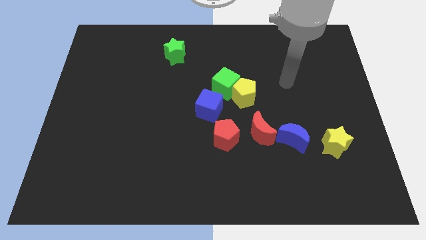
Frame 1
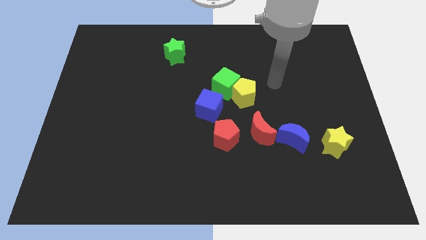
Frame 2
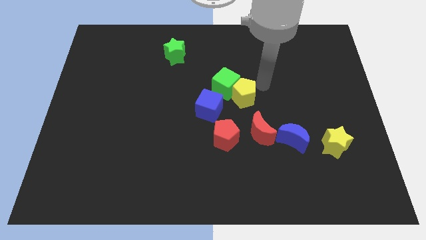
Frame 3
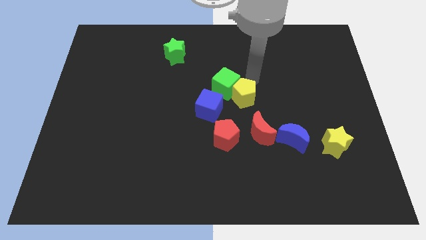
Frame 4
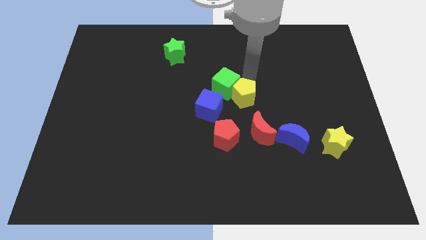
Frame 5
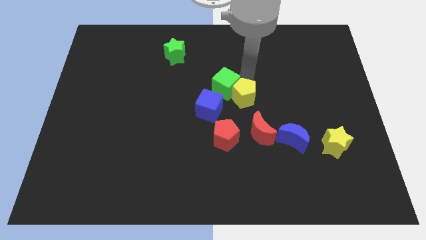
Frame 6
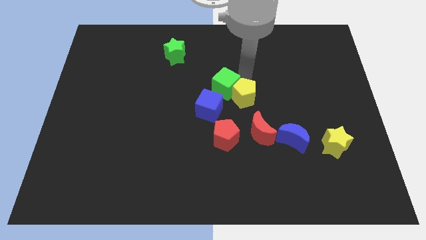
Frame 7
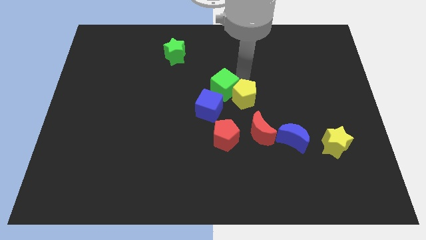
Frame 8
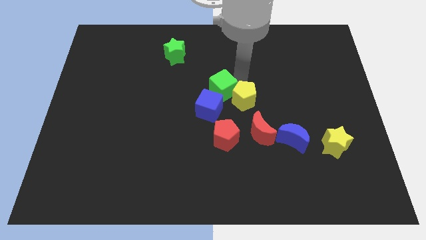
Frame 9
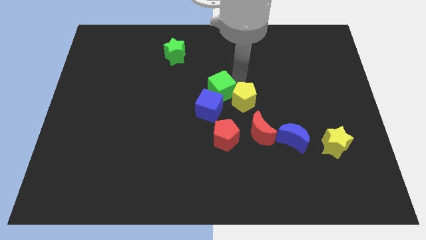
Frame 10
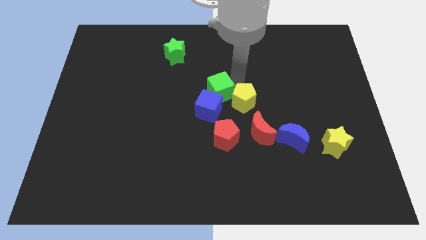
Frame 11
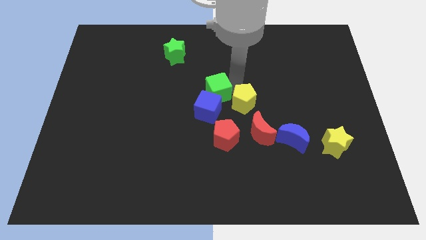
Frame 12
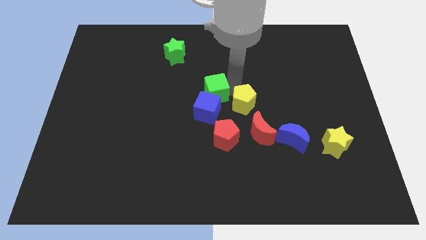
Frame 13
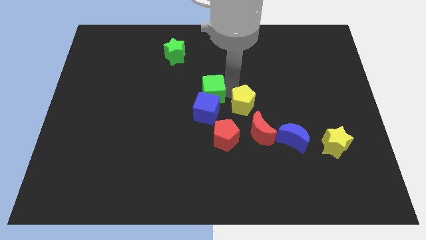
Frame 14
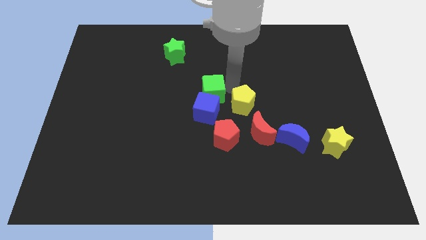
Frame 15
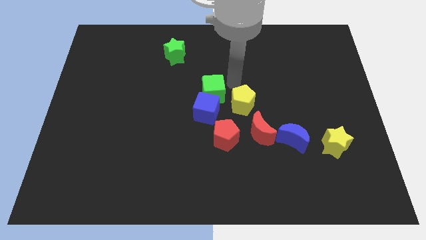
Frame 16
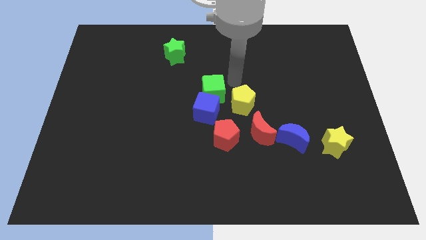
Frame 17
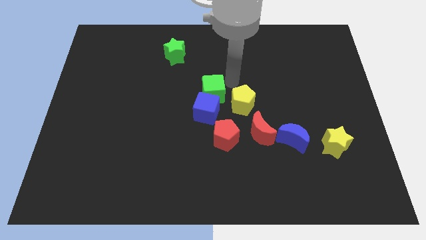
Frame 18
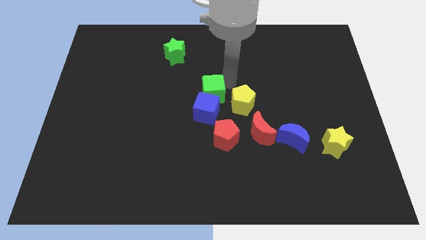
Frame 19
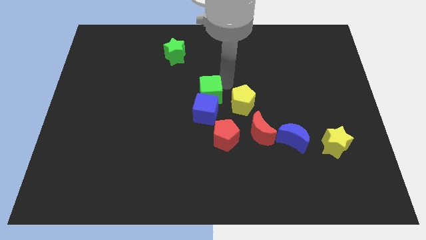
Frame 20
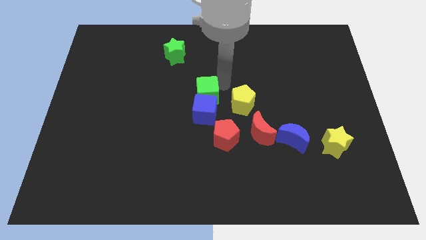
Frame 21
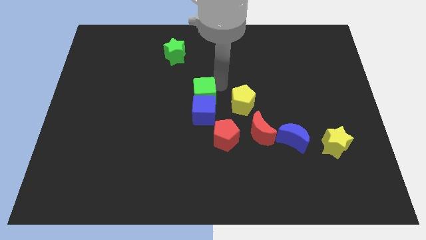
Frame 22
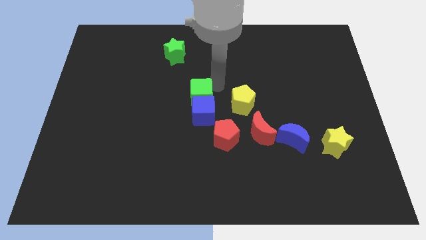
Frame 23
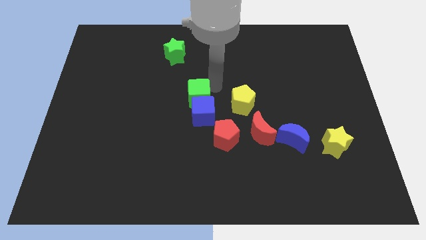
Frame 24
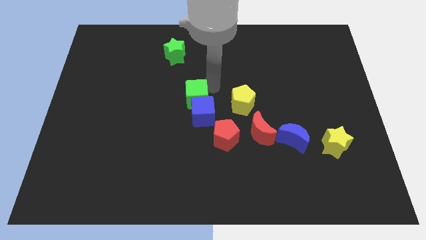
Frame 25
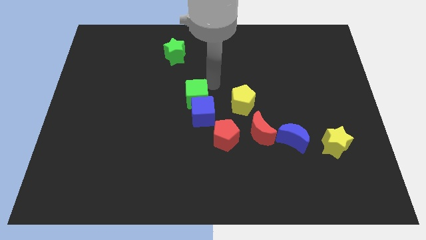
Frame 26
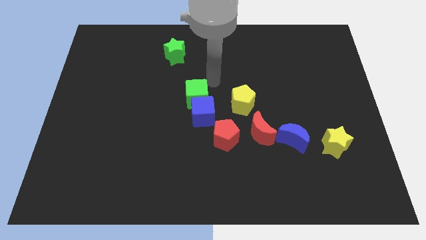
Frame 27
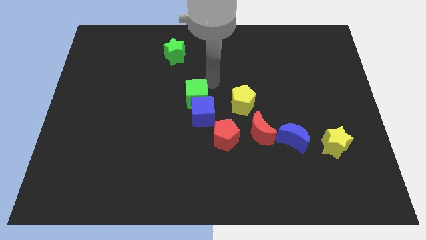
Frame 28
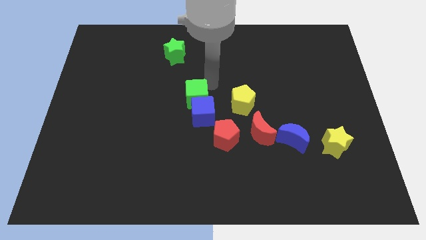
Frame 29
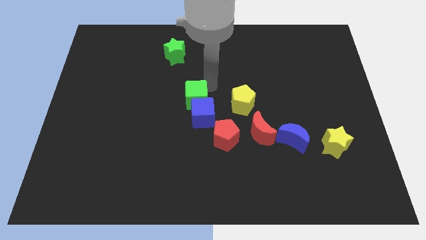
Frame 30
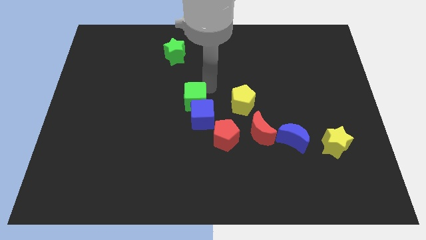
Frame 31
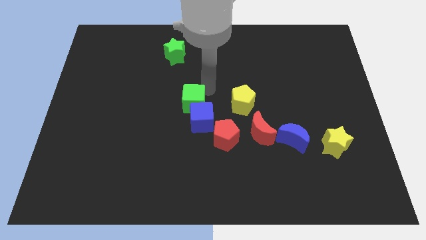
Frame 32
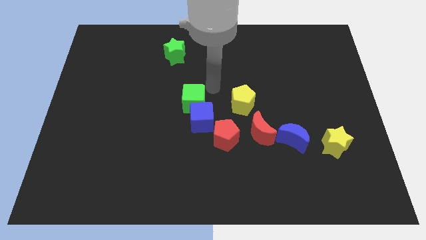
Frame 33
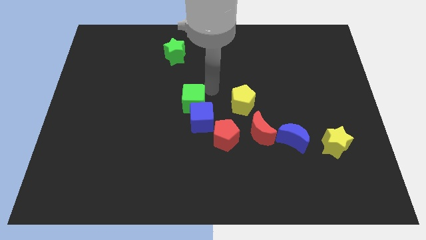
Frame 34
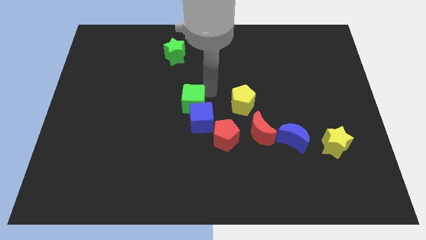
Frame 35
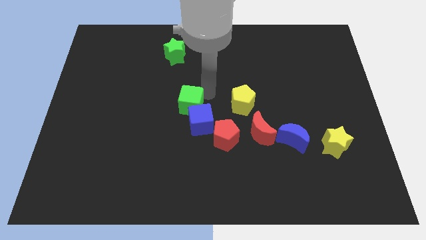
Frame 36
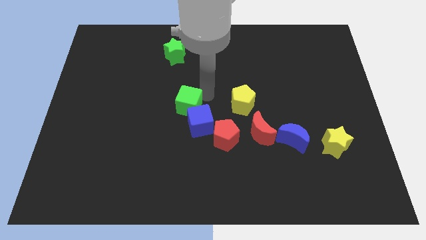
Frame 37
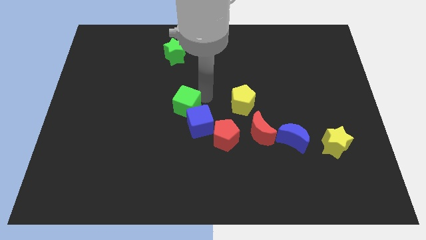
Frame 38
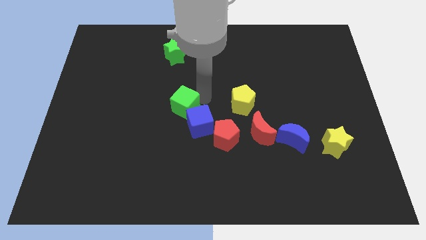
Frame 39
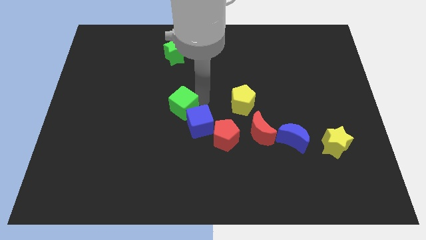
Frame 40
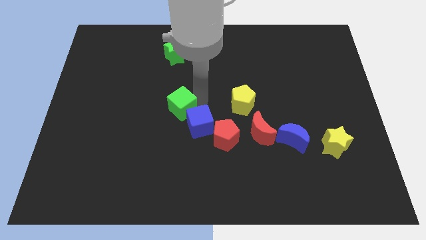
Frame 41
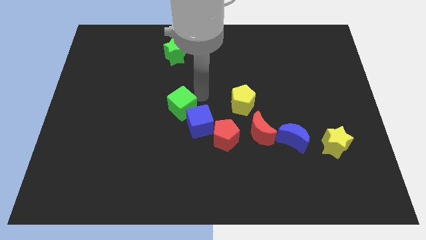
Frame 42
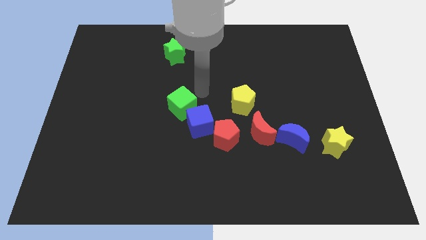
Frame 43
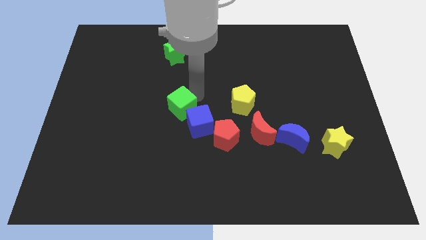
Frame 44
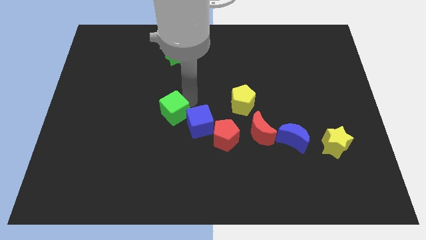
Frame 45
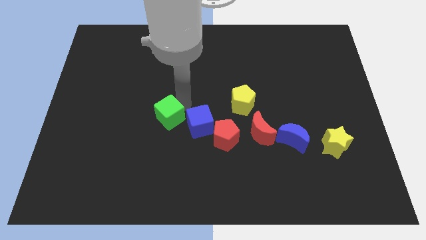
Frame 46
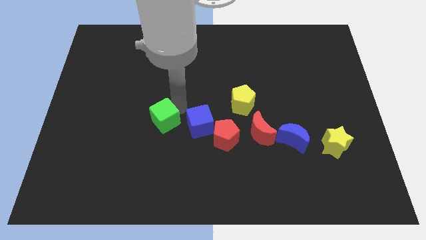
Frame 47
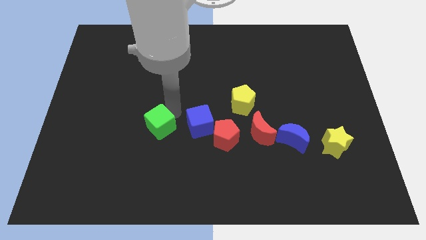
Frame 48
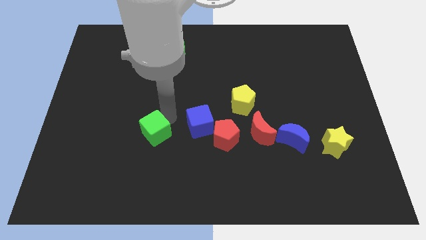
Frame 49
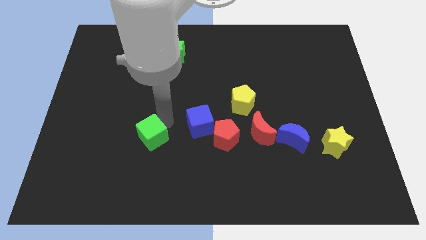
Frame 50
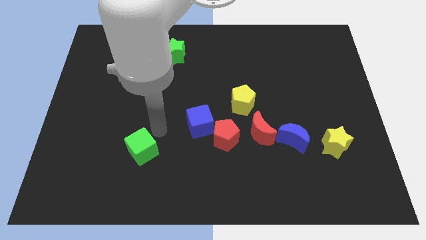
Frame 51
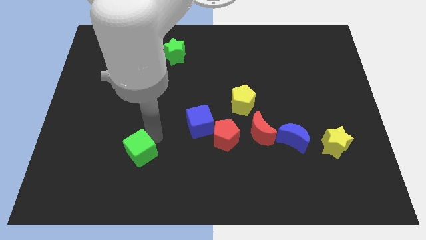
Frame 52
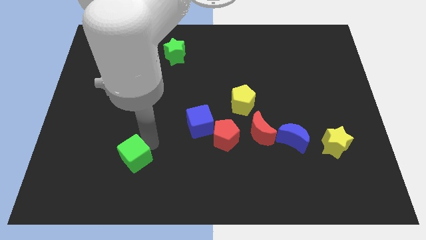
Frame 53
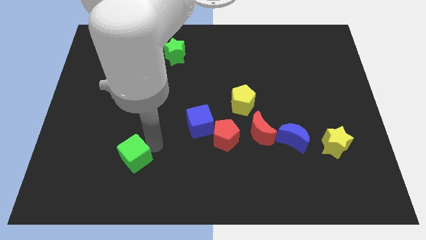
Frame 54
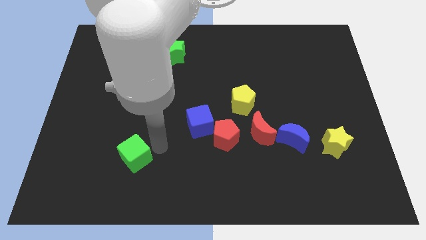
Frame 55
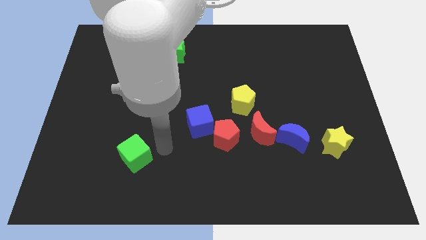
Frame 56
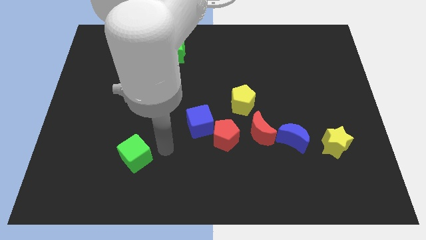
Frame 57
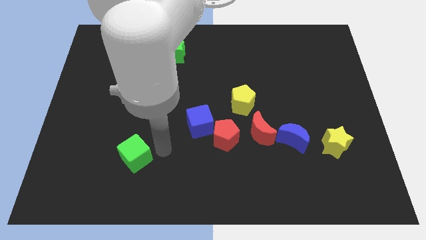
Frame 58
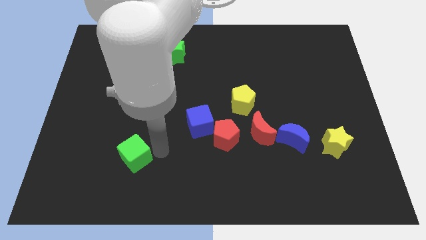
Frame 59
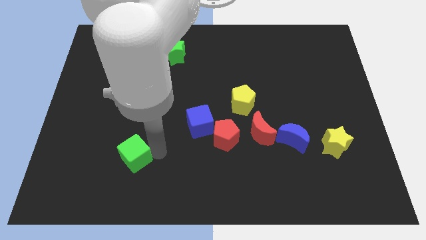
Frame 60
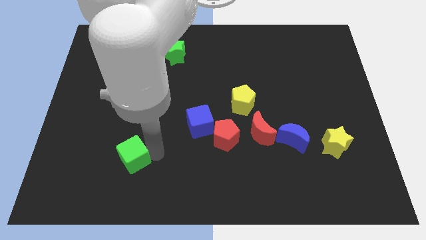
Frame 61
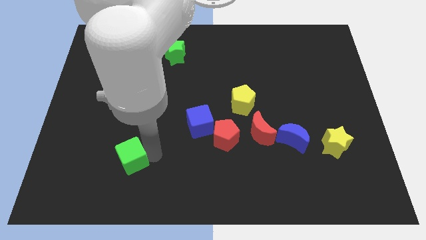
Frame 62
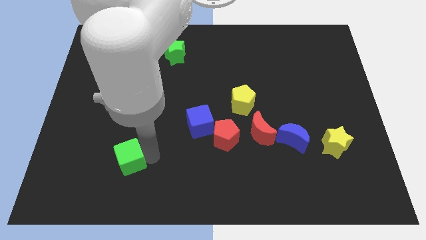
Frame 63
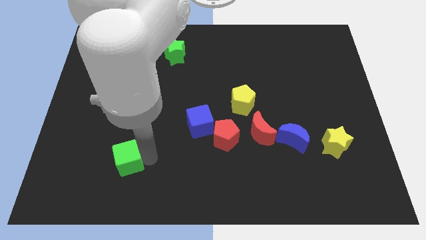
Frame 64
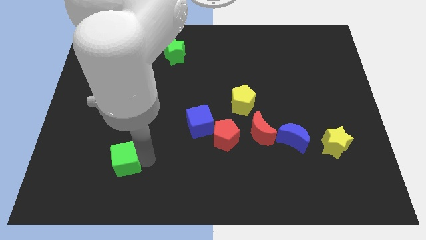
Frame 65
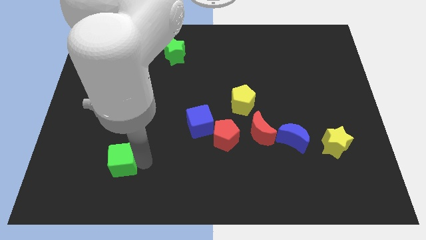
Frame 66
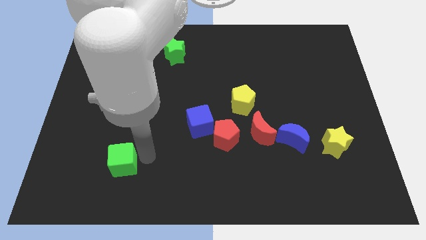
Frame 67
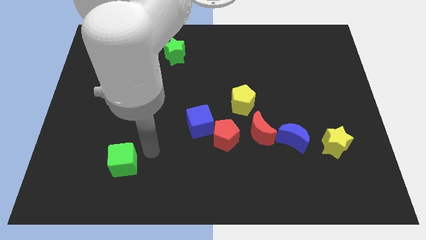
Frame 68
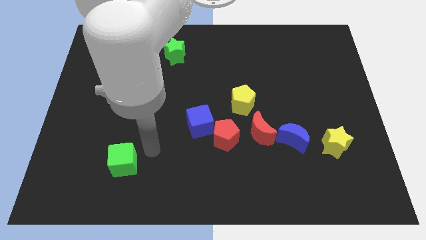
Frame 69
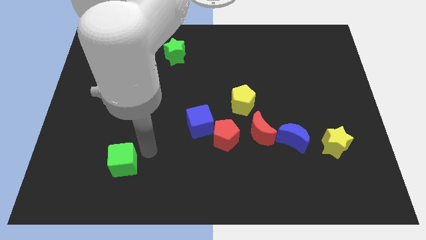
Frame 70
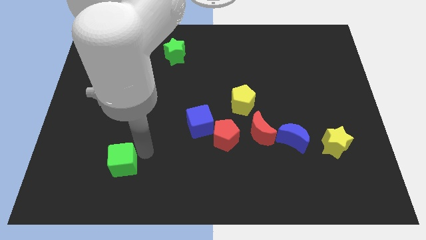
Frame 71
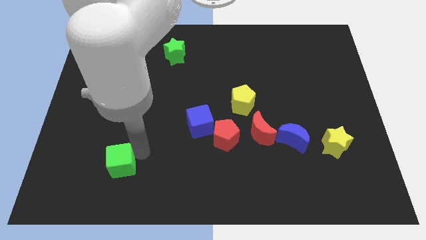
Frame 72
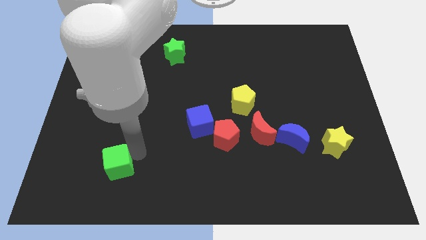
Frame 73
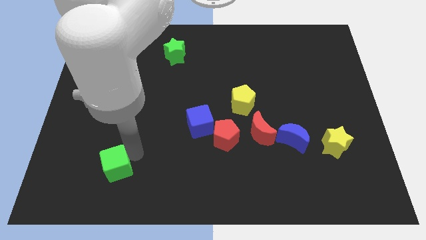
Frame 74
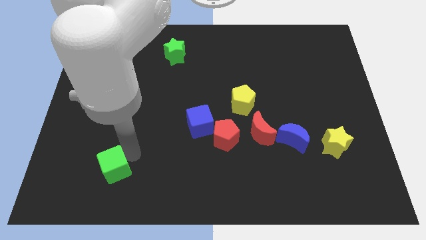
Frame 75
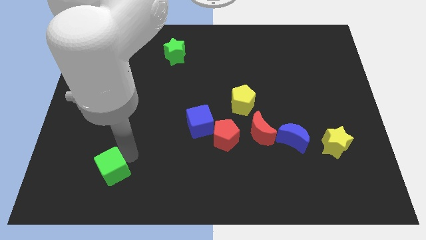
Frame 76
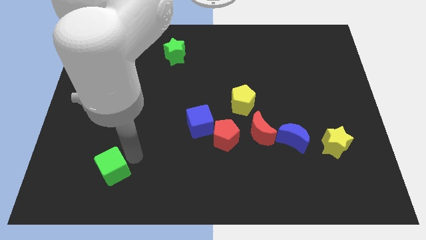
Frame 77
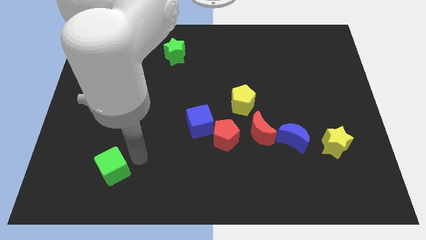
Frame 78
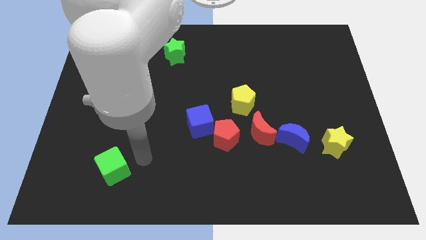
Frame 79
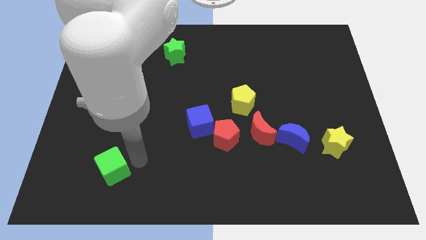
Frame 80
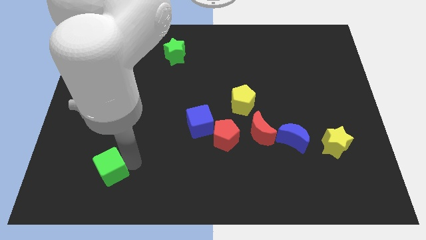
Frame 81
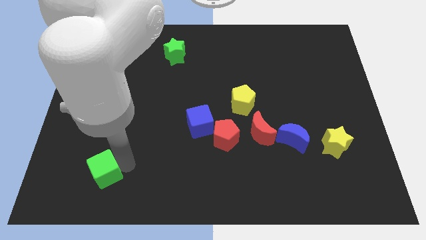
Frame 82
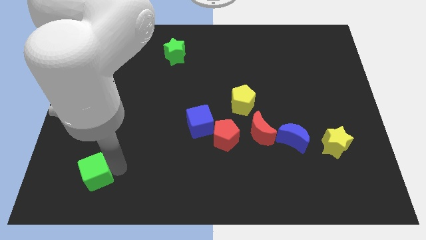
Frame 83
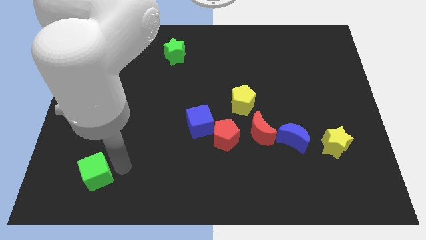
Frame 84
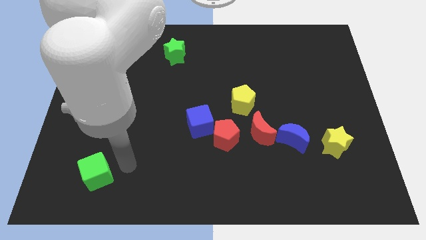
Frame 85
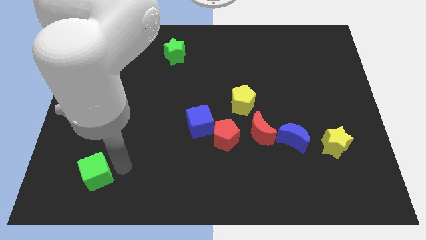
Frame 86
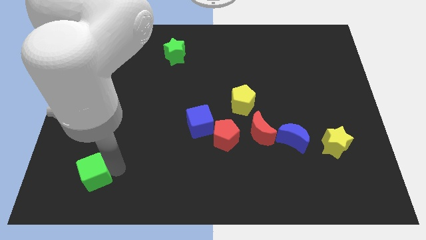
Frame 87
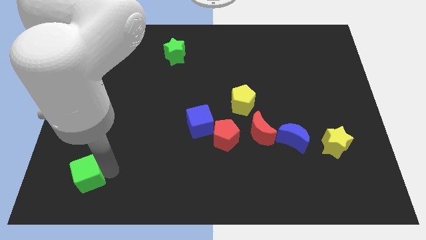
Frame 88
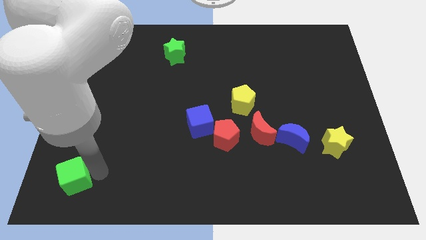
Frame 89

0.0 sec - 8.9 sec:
put the green cube to the bottom left
